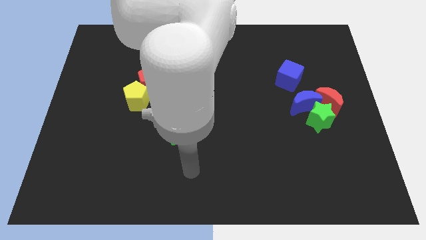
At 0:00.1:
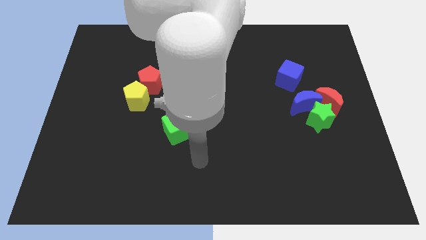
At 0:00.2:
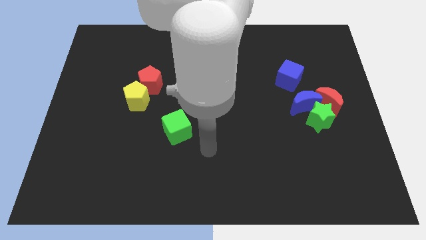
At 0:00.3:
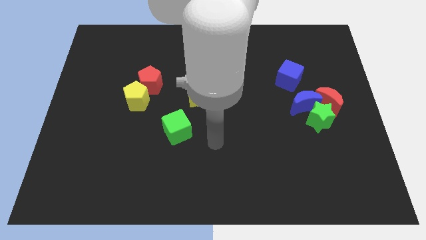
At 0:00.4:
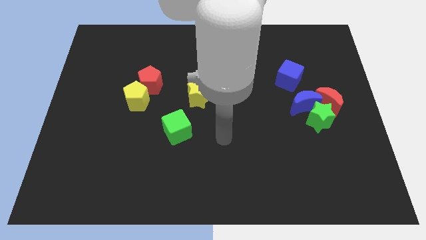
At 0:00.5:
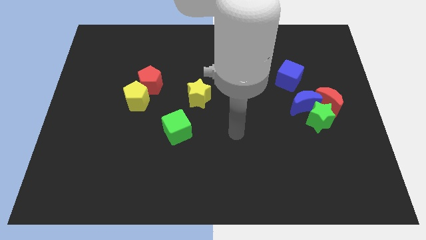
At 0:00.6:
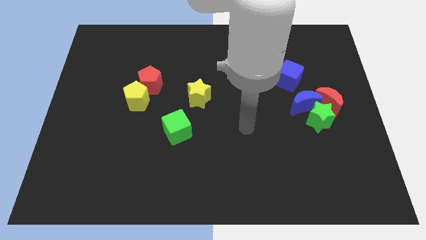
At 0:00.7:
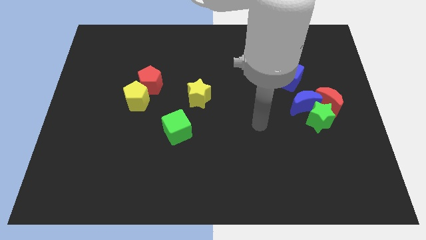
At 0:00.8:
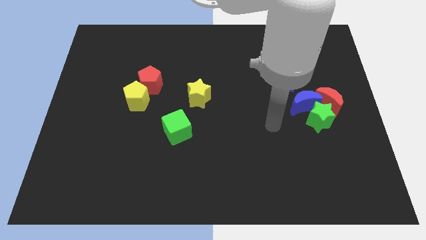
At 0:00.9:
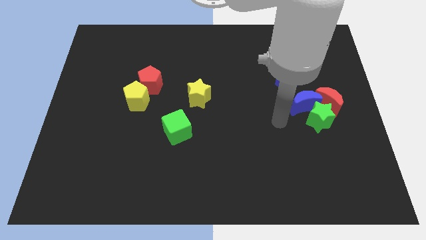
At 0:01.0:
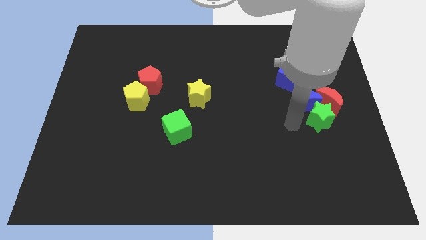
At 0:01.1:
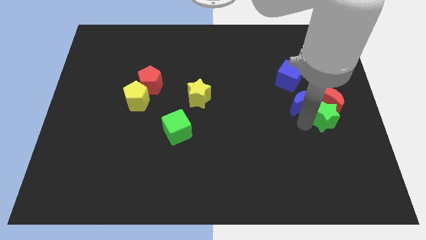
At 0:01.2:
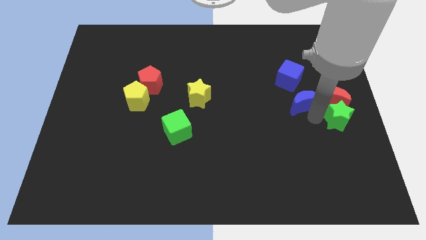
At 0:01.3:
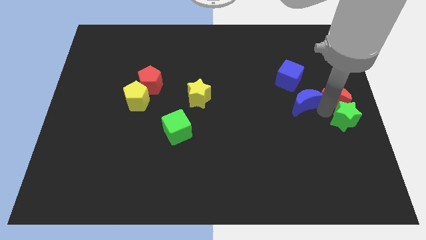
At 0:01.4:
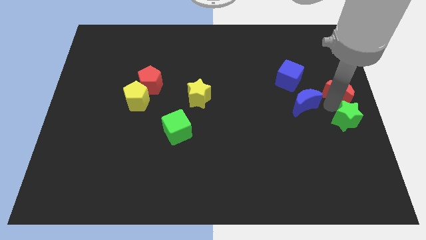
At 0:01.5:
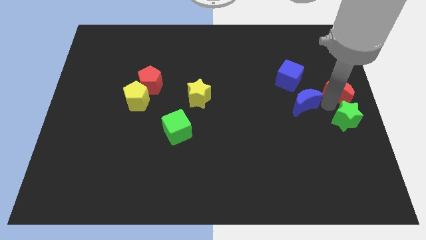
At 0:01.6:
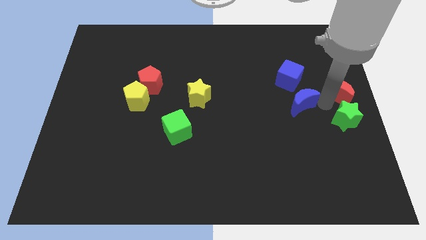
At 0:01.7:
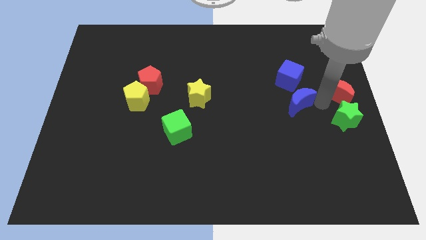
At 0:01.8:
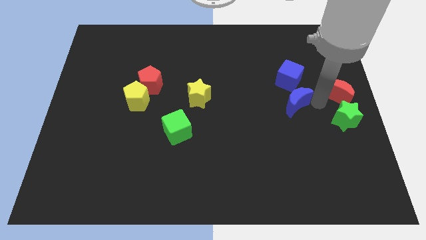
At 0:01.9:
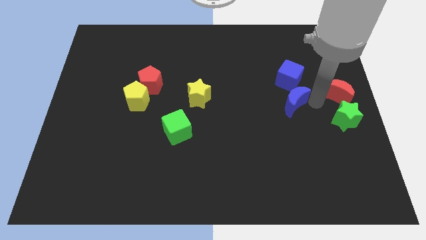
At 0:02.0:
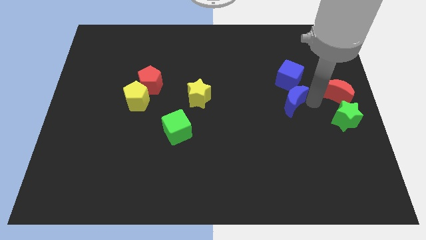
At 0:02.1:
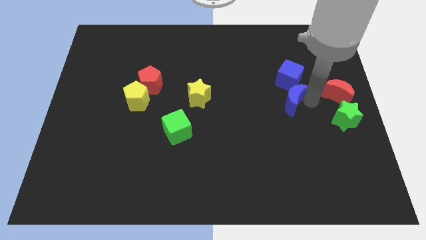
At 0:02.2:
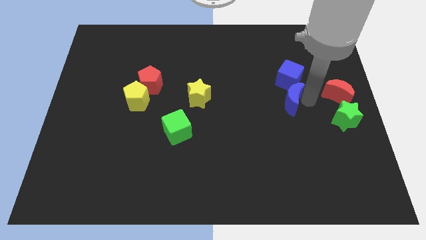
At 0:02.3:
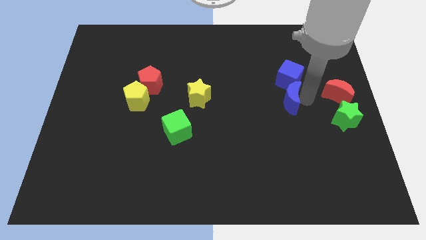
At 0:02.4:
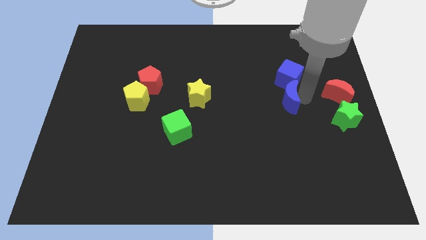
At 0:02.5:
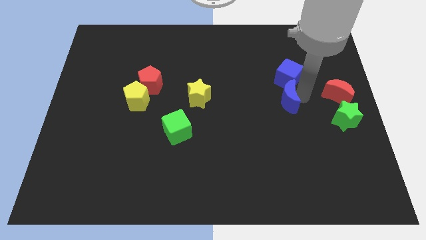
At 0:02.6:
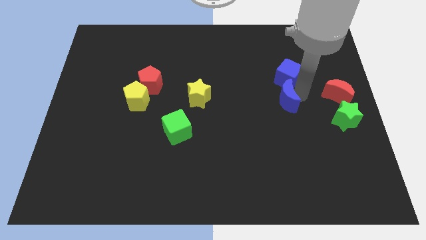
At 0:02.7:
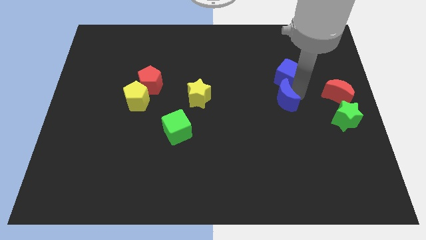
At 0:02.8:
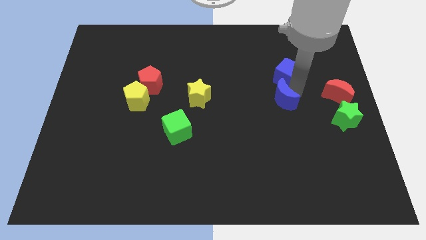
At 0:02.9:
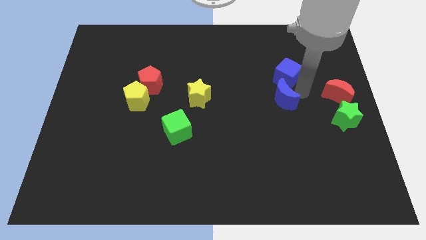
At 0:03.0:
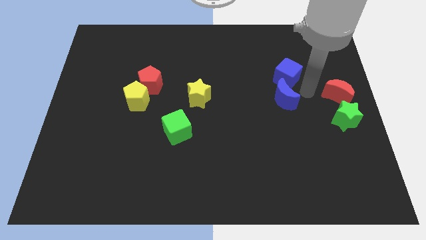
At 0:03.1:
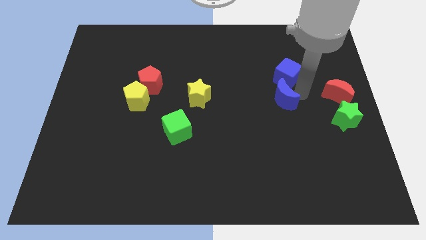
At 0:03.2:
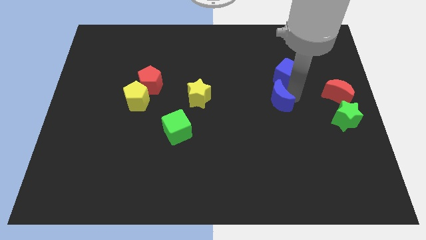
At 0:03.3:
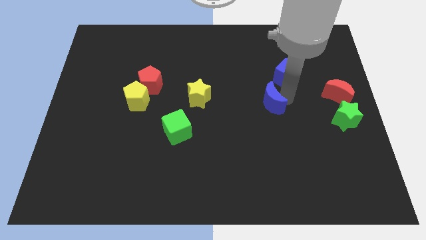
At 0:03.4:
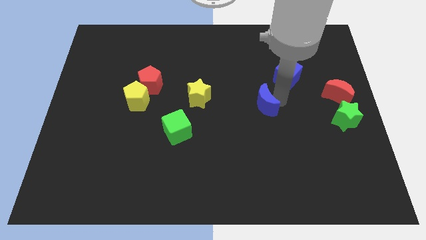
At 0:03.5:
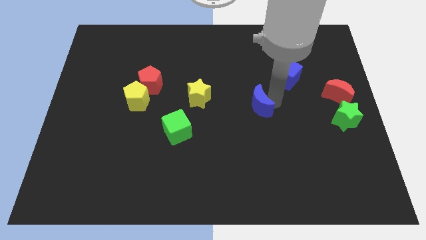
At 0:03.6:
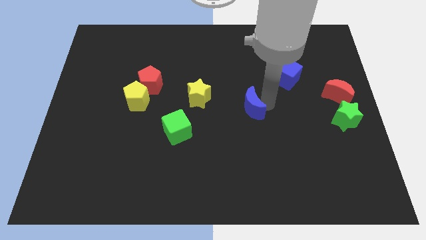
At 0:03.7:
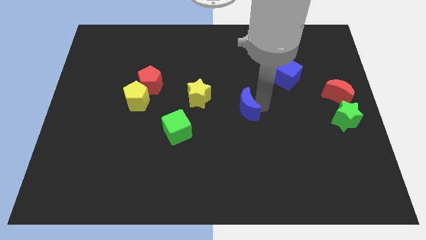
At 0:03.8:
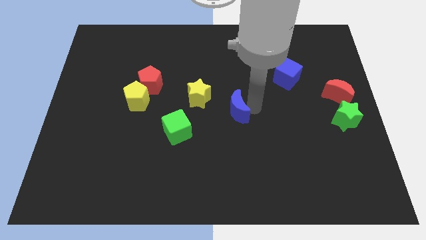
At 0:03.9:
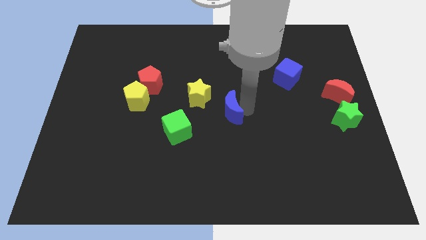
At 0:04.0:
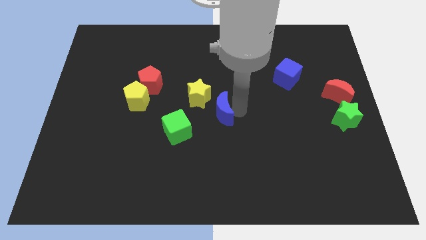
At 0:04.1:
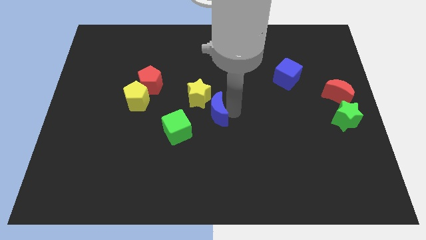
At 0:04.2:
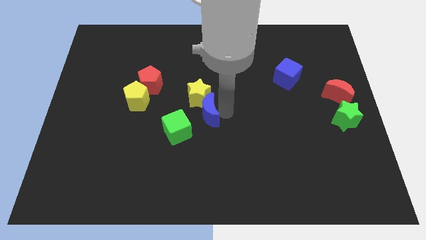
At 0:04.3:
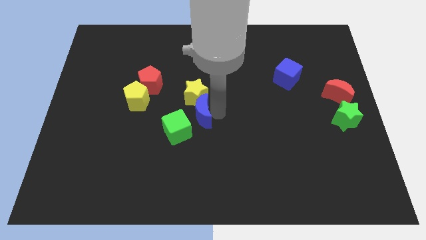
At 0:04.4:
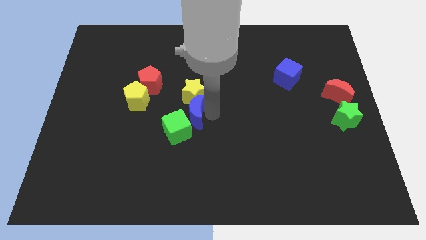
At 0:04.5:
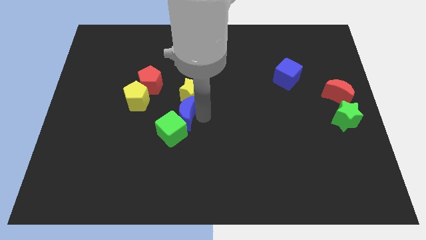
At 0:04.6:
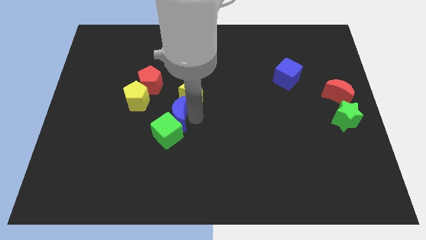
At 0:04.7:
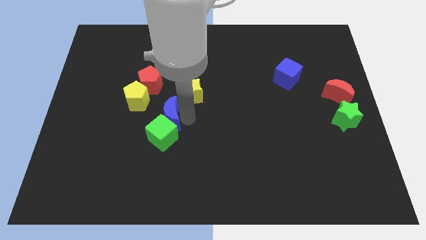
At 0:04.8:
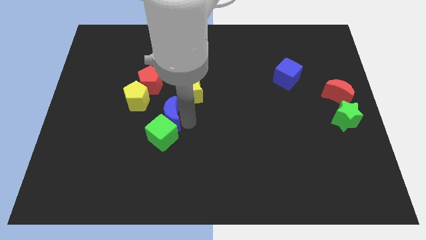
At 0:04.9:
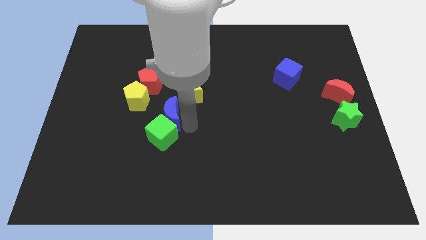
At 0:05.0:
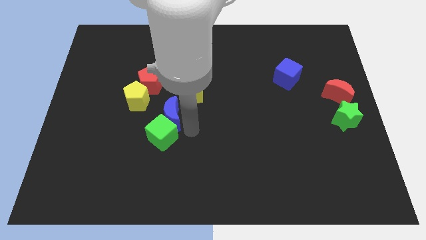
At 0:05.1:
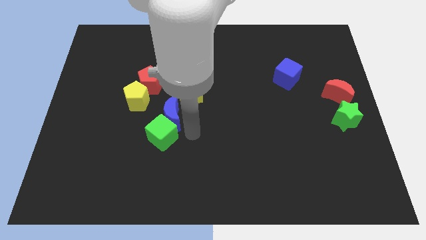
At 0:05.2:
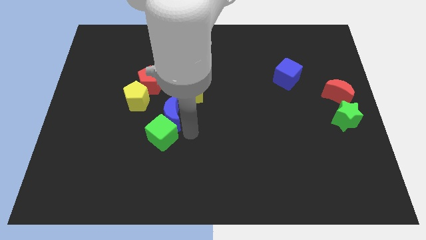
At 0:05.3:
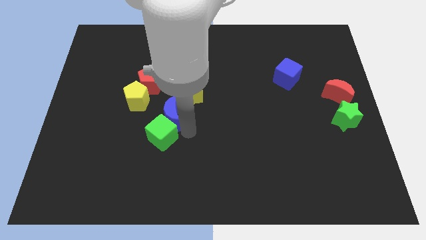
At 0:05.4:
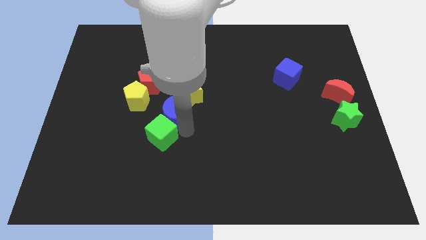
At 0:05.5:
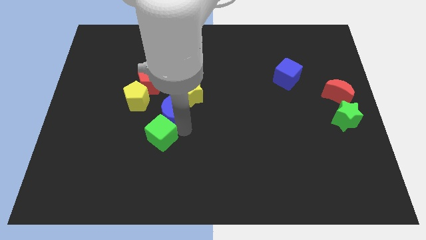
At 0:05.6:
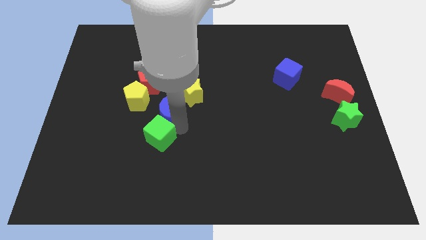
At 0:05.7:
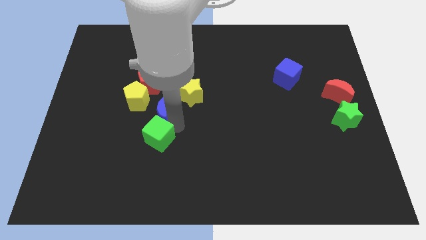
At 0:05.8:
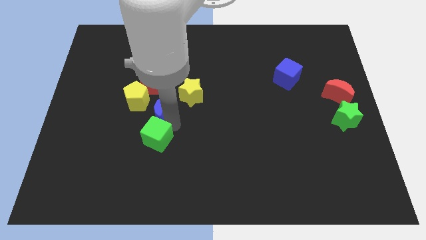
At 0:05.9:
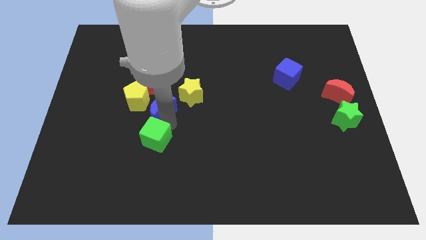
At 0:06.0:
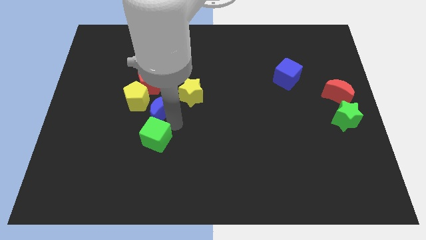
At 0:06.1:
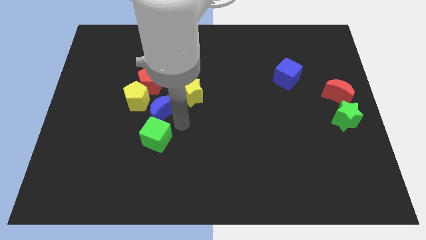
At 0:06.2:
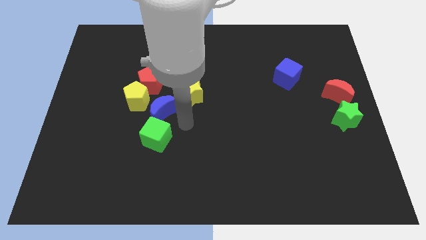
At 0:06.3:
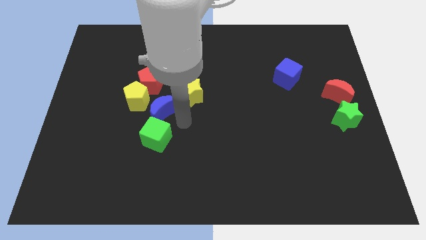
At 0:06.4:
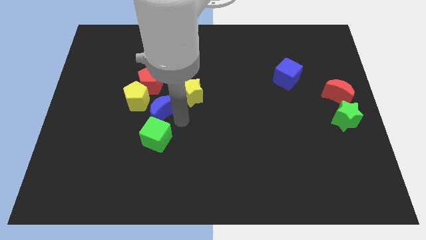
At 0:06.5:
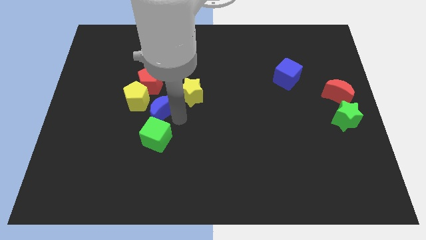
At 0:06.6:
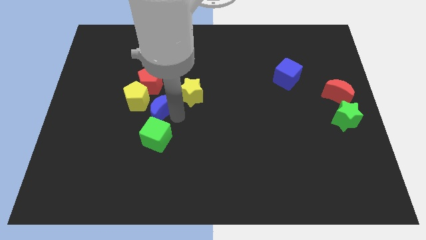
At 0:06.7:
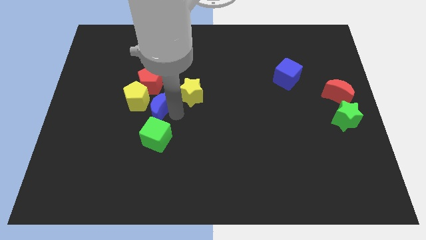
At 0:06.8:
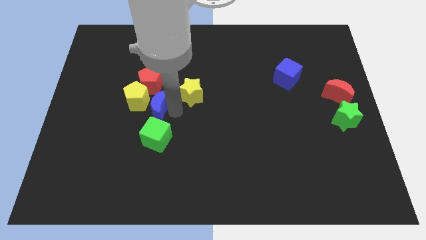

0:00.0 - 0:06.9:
move the blue moon towards the yellow pentagon

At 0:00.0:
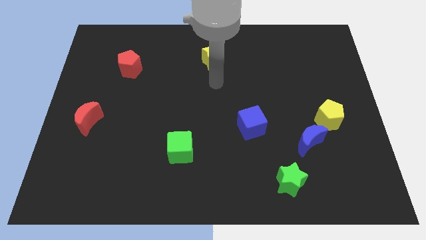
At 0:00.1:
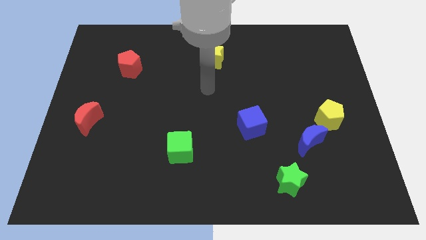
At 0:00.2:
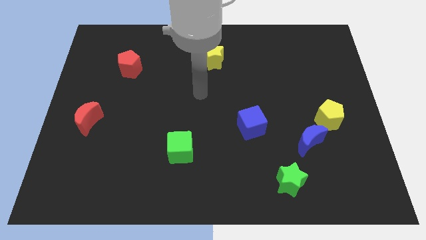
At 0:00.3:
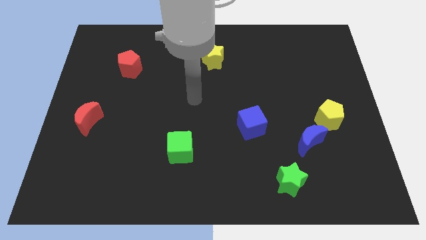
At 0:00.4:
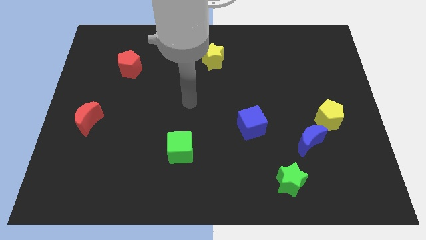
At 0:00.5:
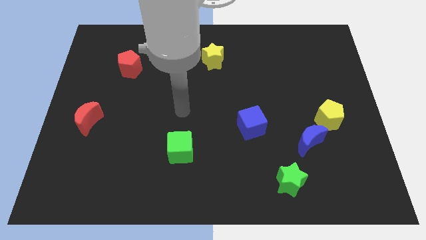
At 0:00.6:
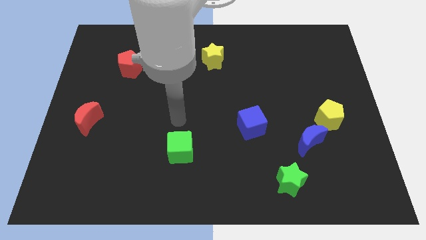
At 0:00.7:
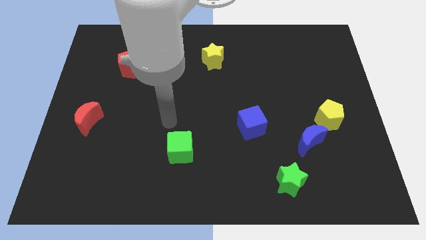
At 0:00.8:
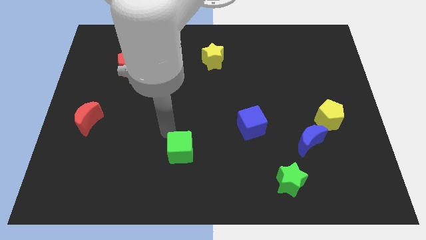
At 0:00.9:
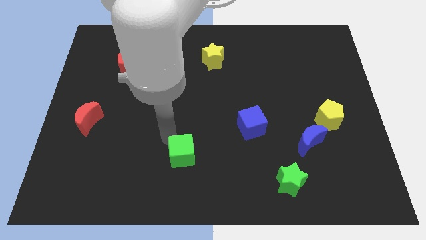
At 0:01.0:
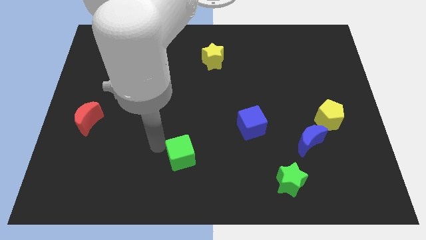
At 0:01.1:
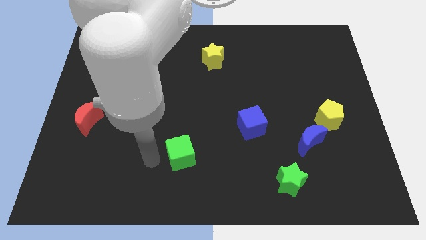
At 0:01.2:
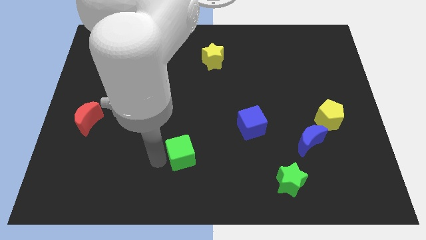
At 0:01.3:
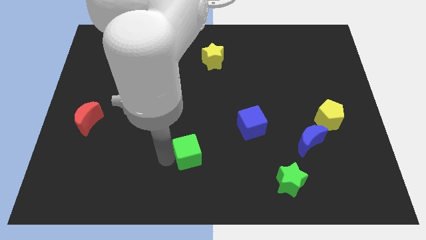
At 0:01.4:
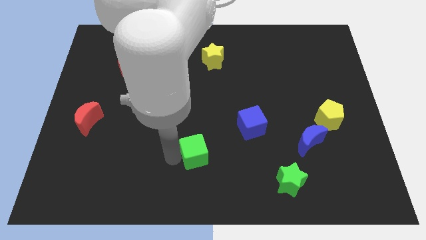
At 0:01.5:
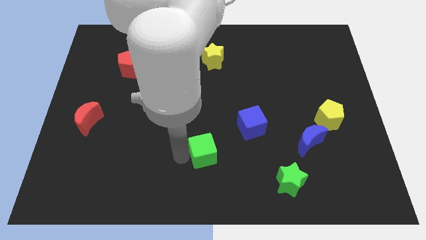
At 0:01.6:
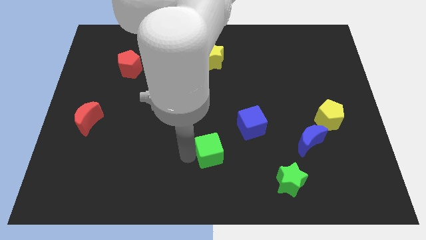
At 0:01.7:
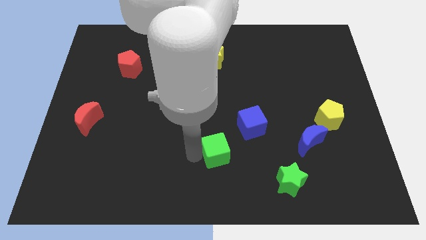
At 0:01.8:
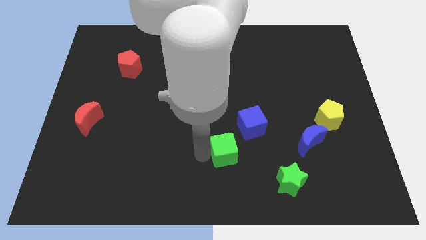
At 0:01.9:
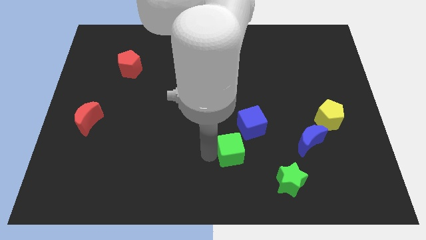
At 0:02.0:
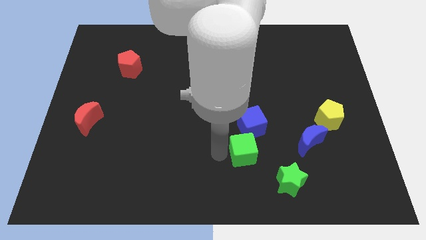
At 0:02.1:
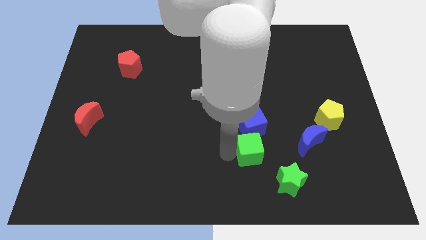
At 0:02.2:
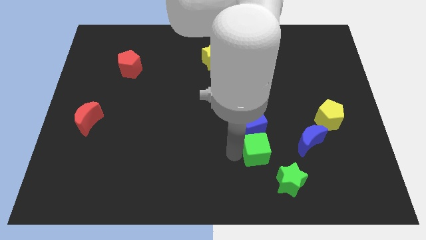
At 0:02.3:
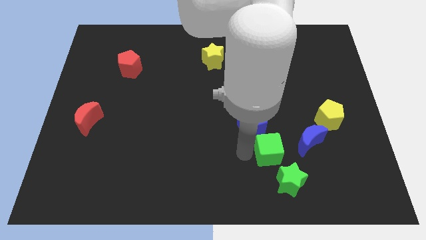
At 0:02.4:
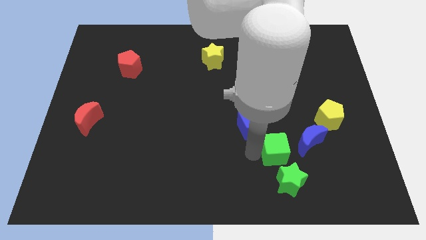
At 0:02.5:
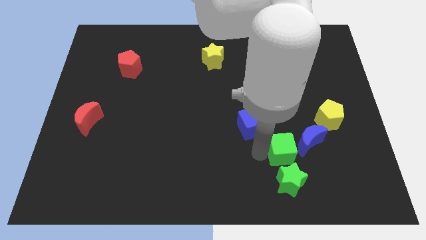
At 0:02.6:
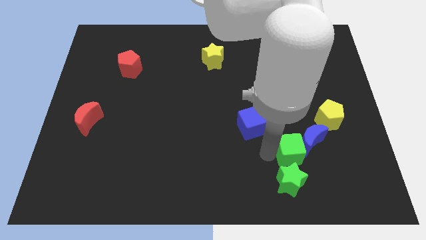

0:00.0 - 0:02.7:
push the green cube to the blue moon
